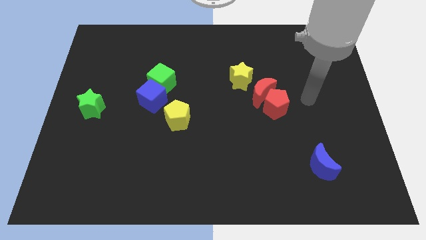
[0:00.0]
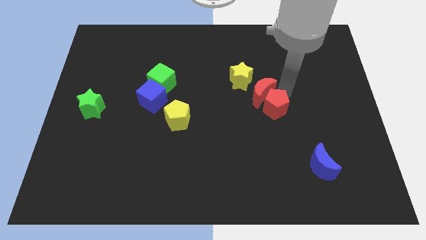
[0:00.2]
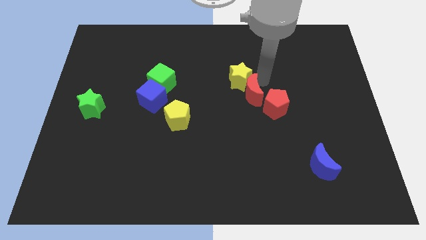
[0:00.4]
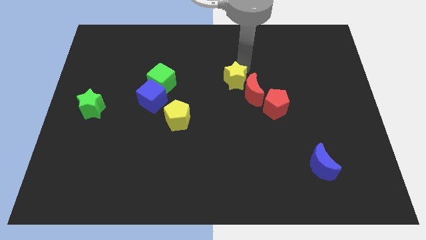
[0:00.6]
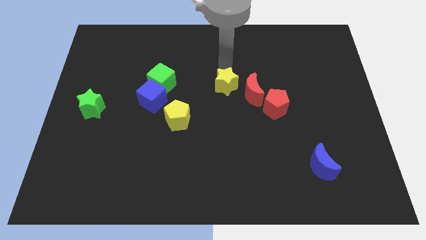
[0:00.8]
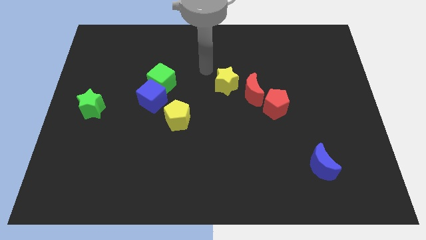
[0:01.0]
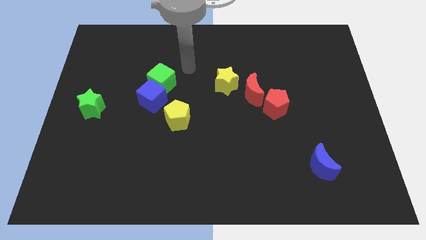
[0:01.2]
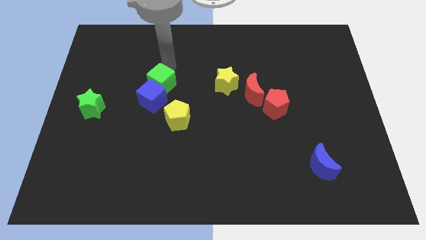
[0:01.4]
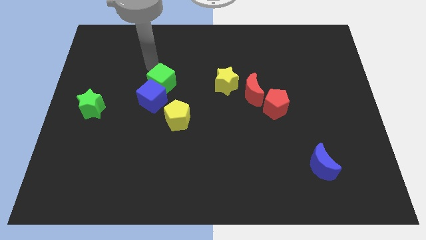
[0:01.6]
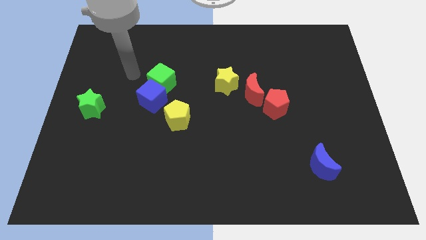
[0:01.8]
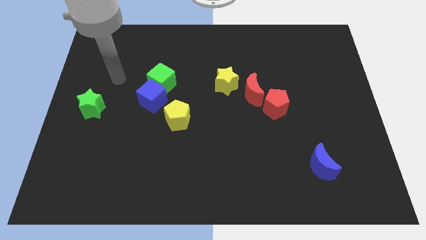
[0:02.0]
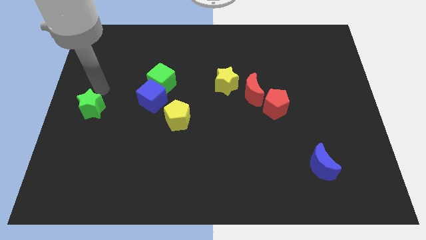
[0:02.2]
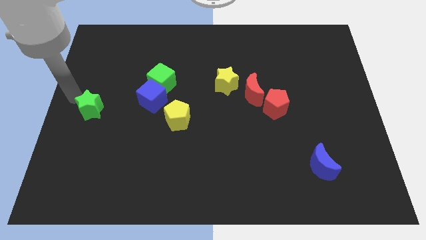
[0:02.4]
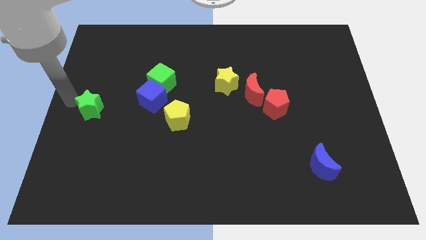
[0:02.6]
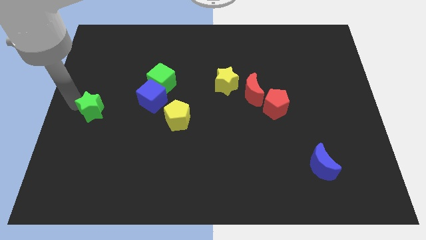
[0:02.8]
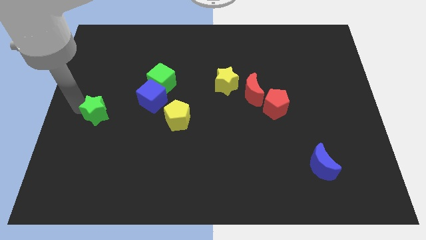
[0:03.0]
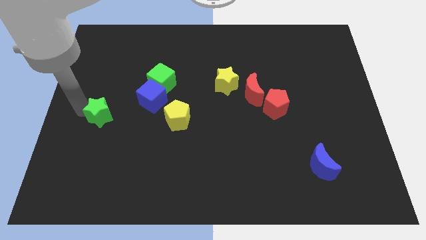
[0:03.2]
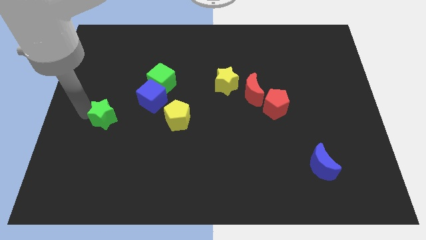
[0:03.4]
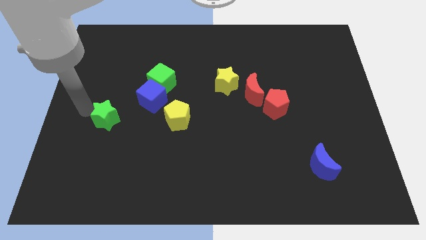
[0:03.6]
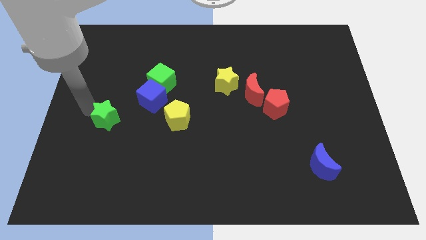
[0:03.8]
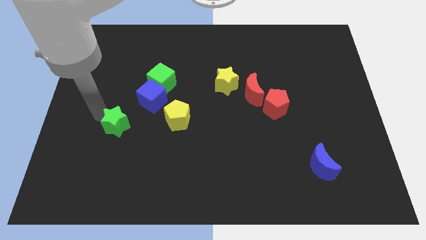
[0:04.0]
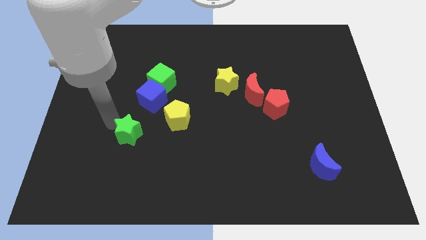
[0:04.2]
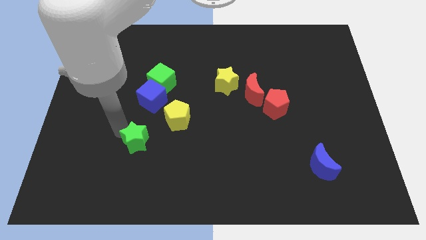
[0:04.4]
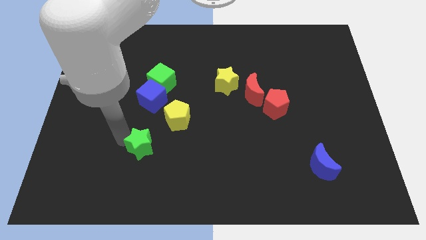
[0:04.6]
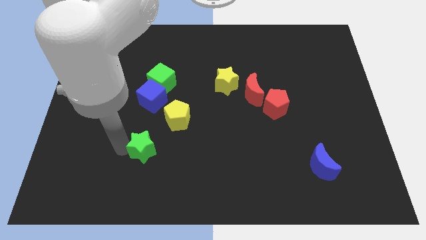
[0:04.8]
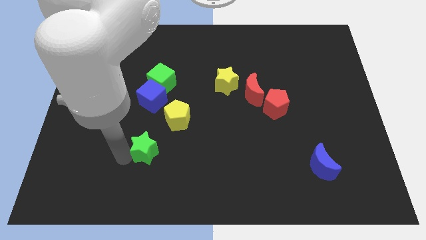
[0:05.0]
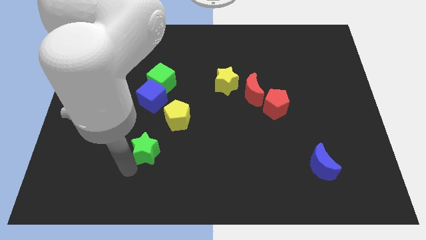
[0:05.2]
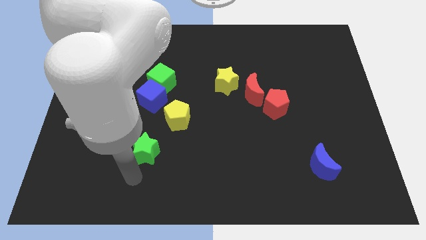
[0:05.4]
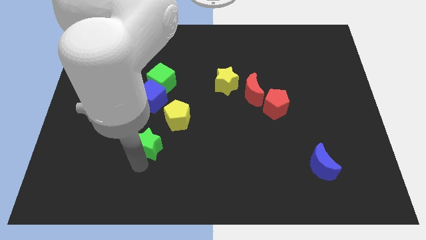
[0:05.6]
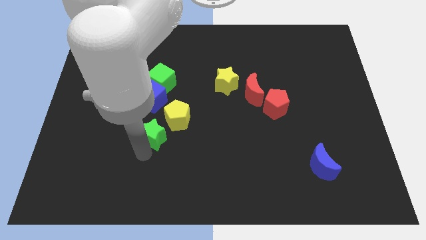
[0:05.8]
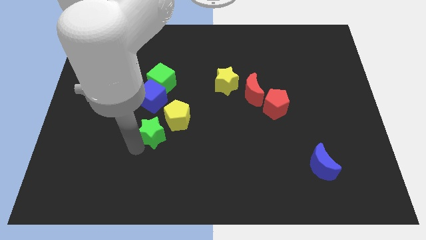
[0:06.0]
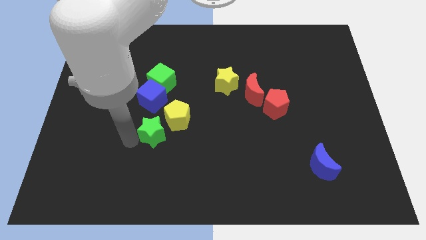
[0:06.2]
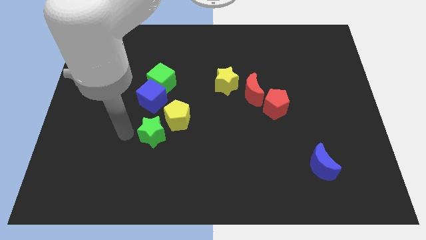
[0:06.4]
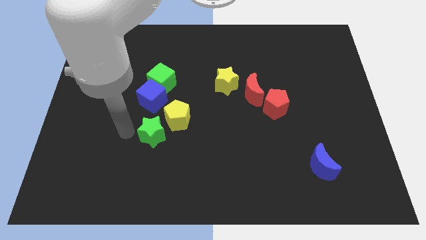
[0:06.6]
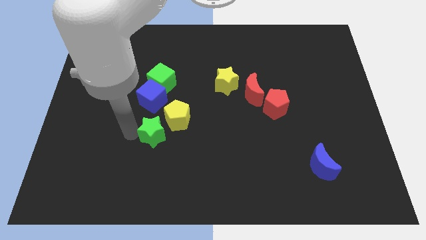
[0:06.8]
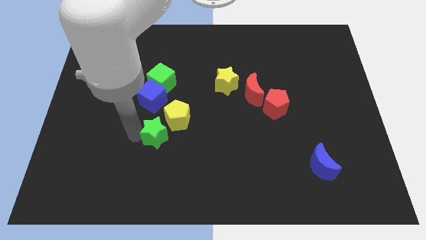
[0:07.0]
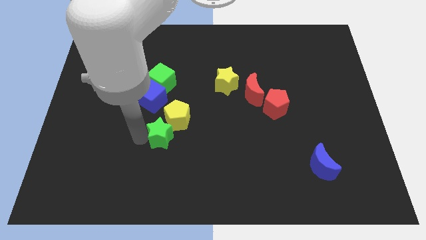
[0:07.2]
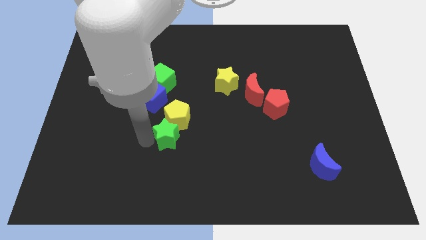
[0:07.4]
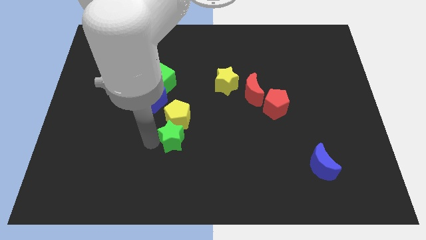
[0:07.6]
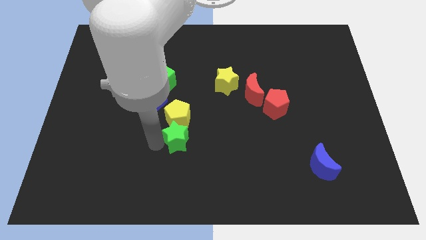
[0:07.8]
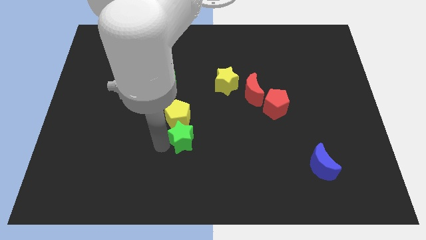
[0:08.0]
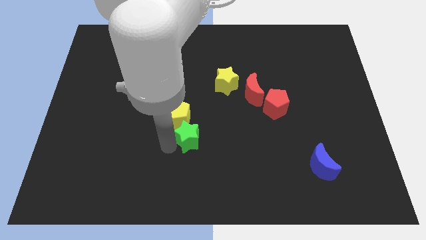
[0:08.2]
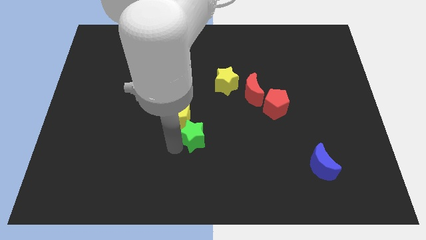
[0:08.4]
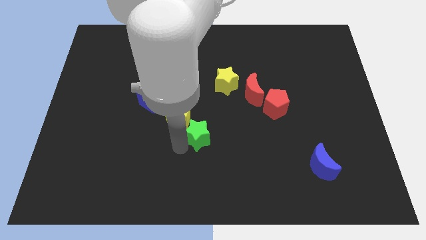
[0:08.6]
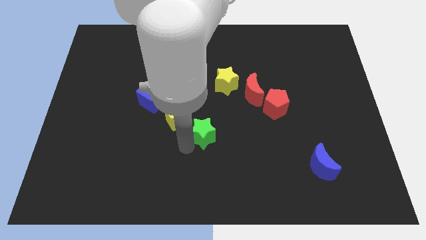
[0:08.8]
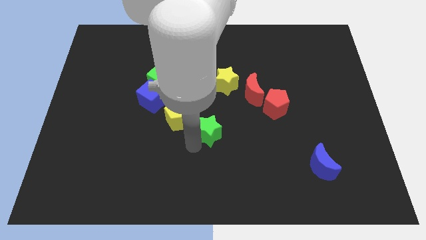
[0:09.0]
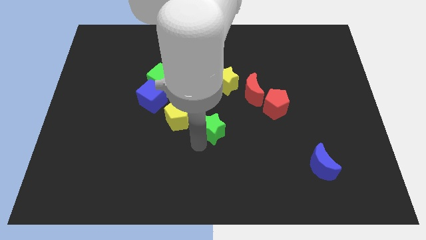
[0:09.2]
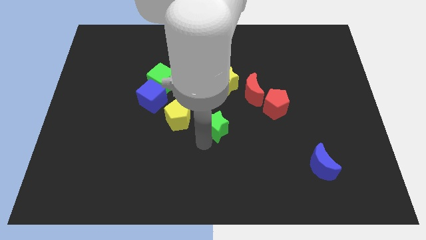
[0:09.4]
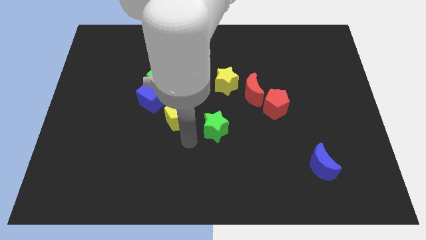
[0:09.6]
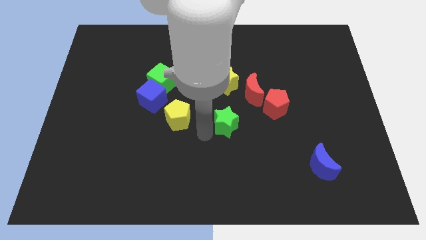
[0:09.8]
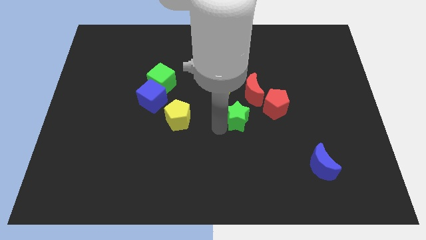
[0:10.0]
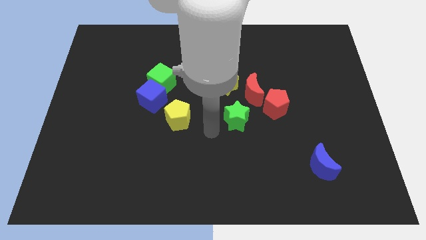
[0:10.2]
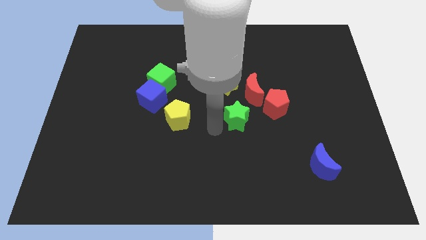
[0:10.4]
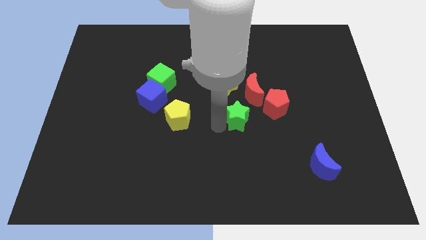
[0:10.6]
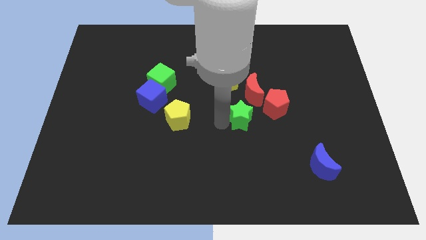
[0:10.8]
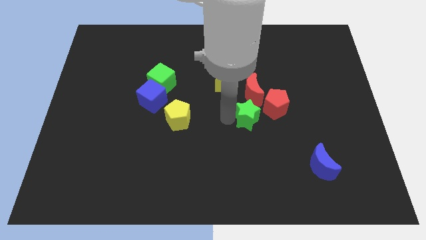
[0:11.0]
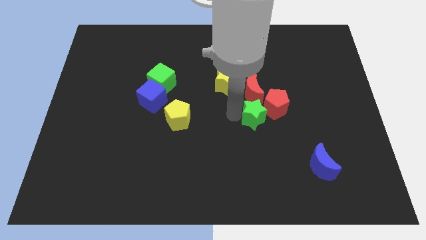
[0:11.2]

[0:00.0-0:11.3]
slide the green star towards the red pentagon

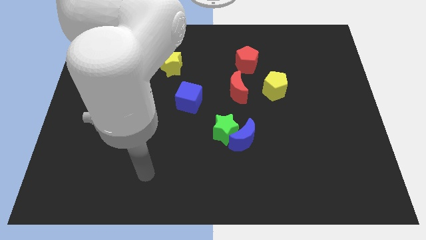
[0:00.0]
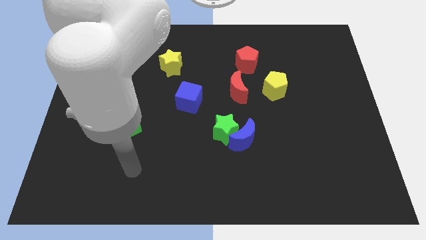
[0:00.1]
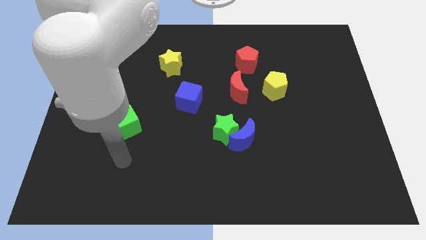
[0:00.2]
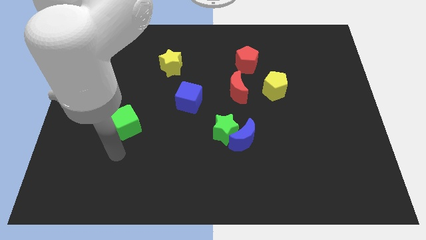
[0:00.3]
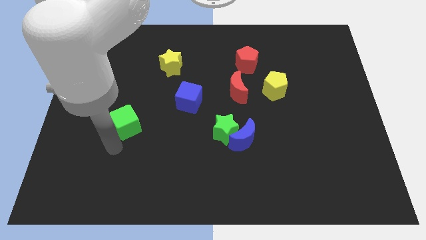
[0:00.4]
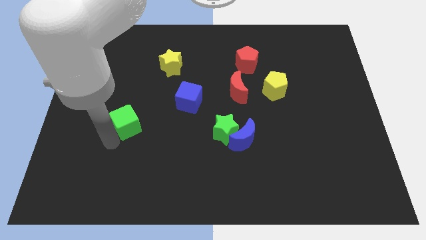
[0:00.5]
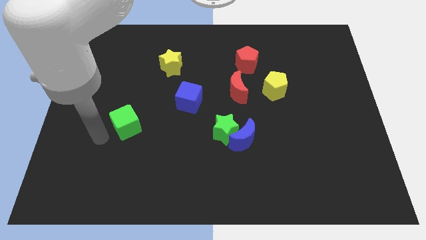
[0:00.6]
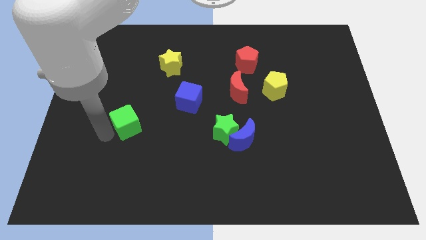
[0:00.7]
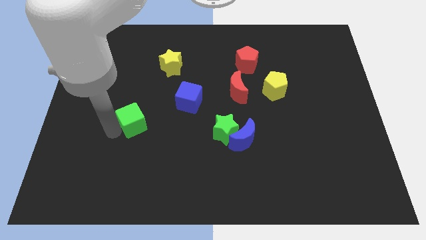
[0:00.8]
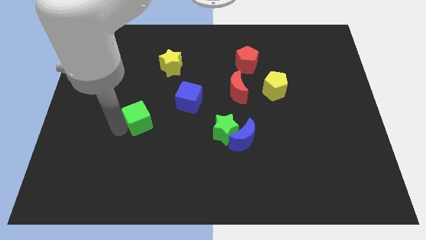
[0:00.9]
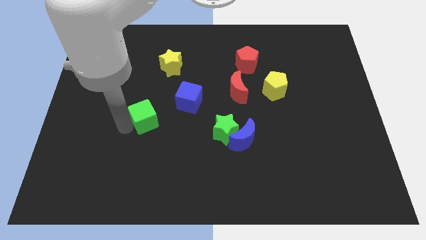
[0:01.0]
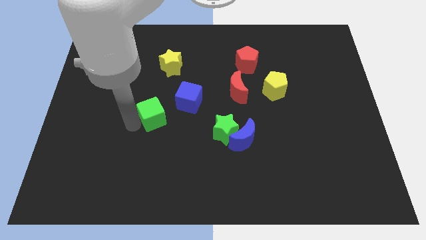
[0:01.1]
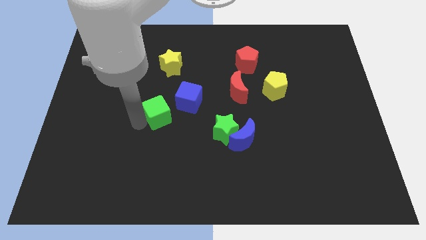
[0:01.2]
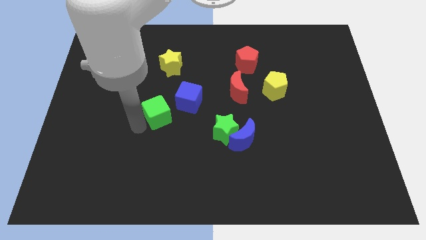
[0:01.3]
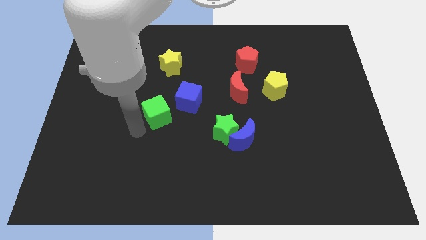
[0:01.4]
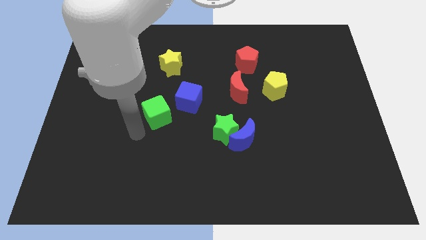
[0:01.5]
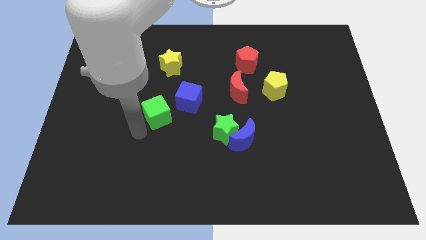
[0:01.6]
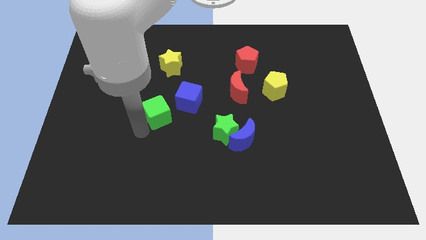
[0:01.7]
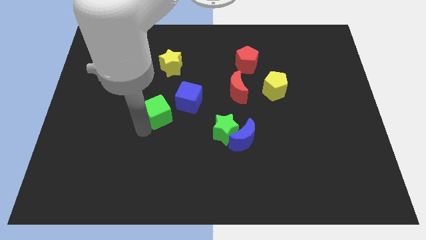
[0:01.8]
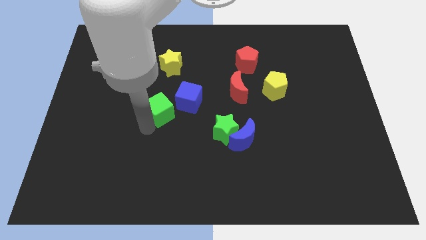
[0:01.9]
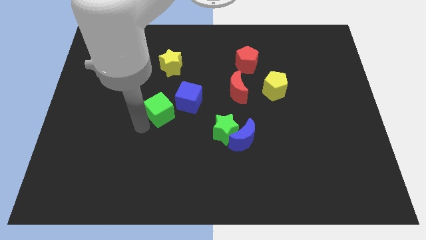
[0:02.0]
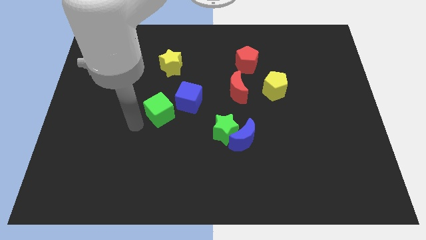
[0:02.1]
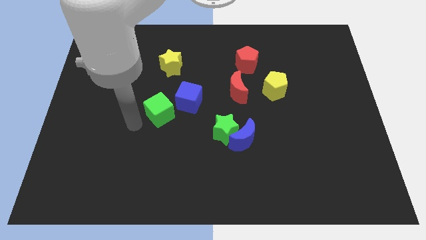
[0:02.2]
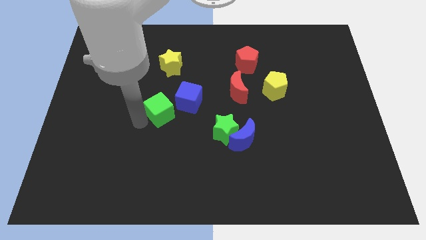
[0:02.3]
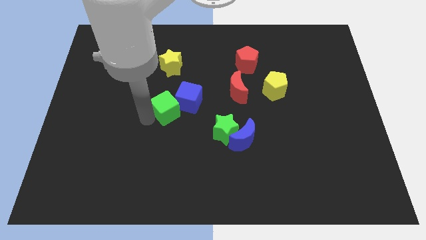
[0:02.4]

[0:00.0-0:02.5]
slide the green cube towards the blue cube
